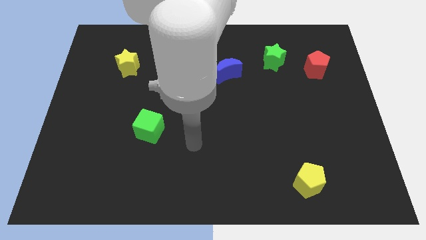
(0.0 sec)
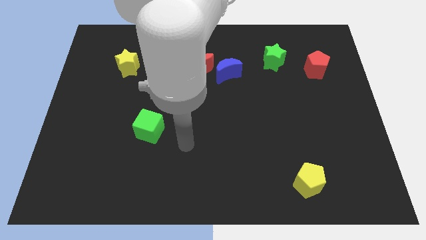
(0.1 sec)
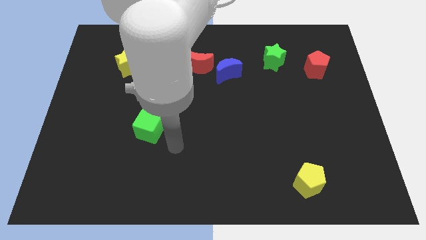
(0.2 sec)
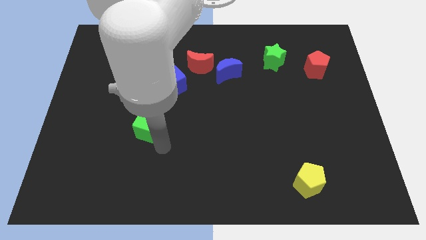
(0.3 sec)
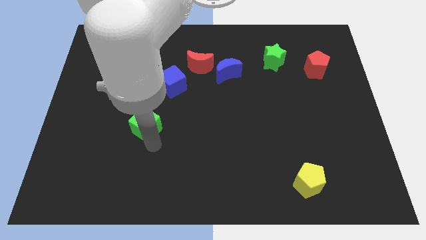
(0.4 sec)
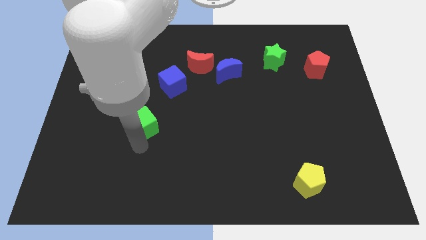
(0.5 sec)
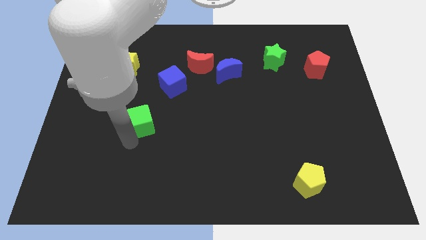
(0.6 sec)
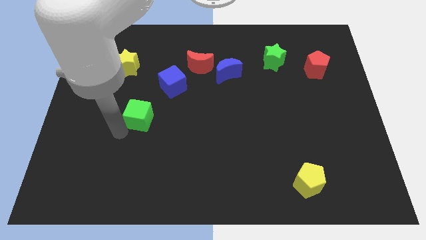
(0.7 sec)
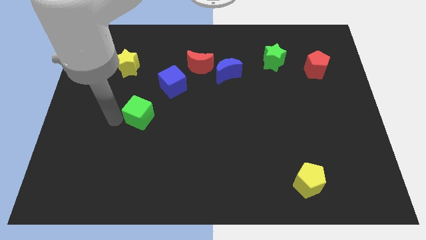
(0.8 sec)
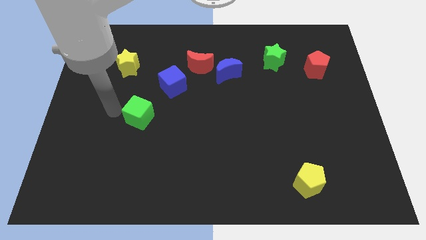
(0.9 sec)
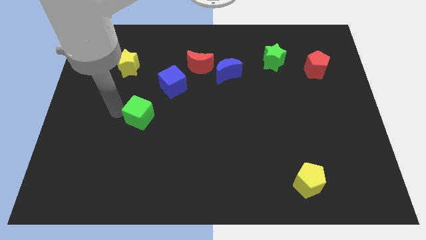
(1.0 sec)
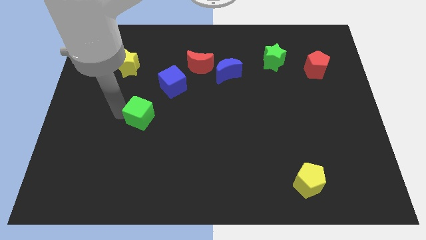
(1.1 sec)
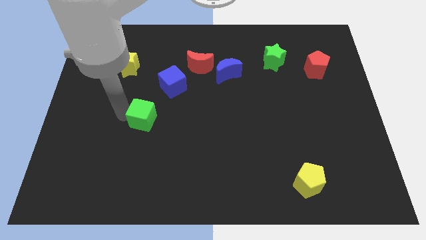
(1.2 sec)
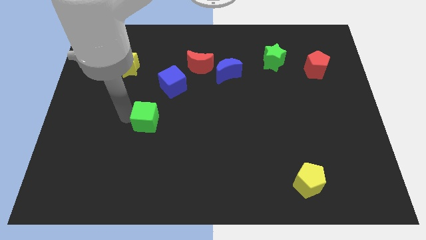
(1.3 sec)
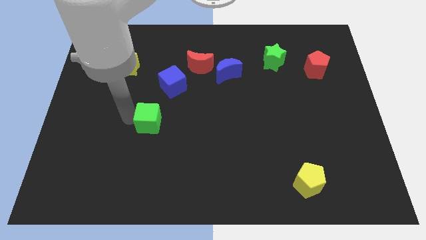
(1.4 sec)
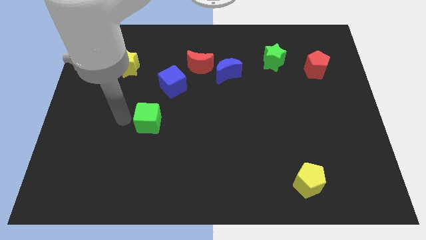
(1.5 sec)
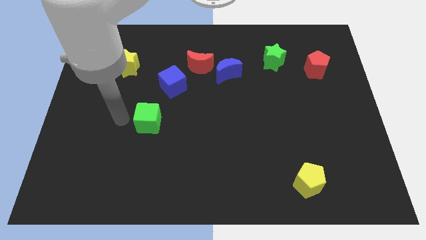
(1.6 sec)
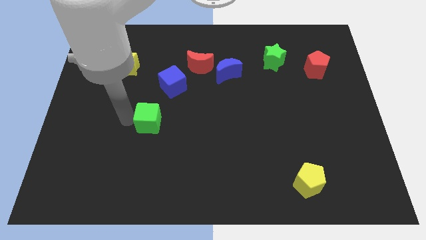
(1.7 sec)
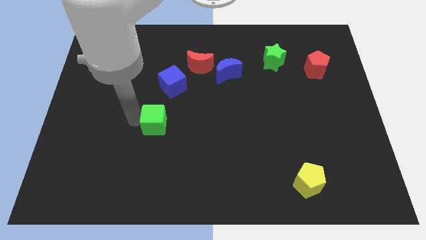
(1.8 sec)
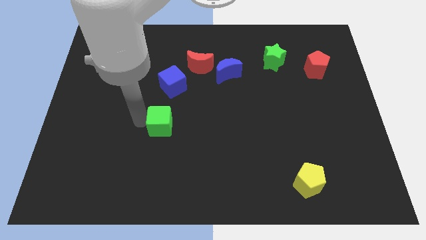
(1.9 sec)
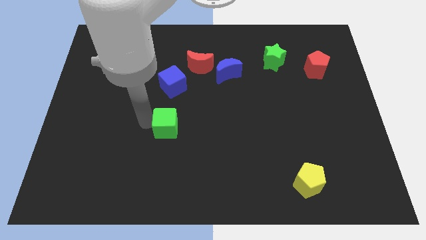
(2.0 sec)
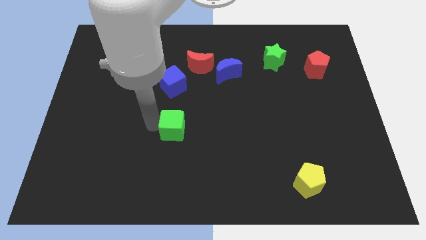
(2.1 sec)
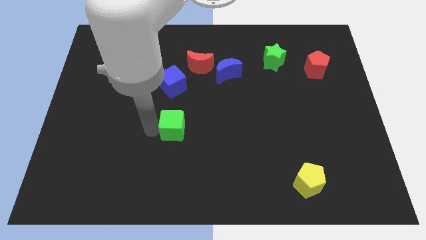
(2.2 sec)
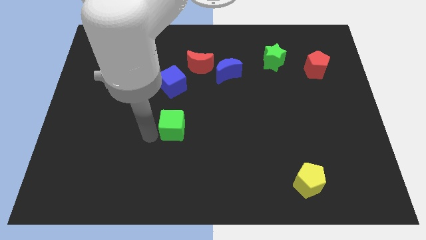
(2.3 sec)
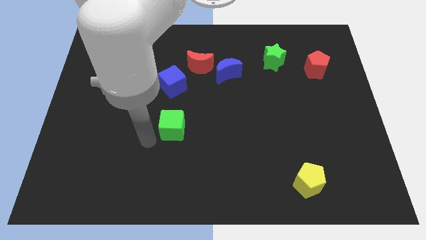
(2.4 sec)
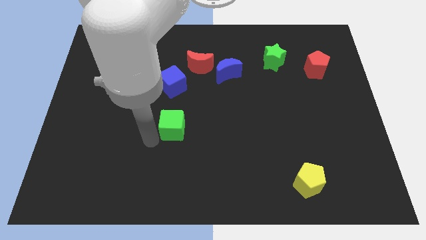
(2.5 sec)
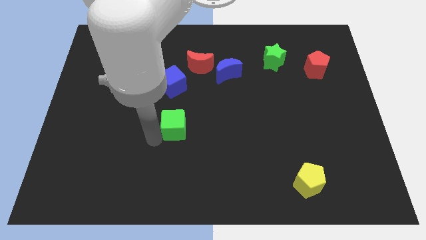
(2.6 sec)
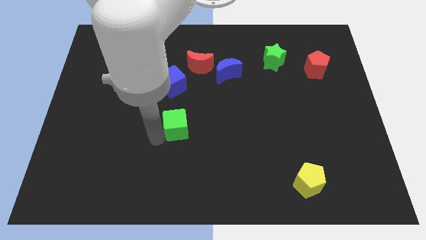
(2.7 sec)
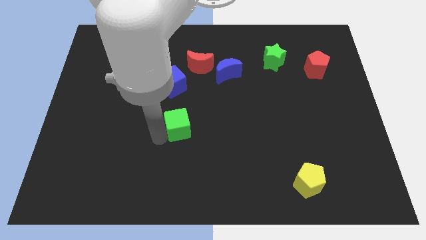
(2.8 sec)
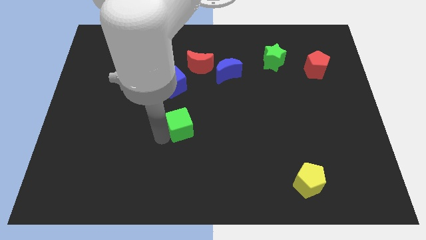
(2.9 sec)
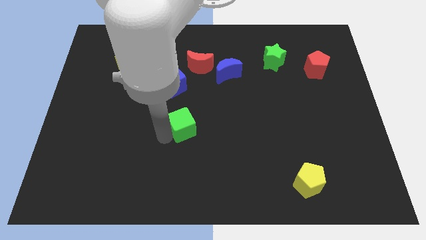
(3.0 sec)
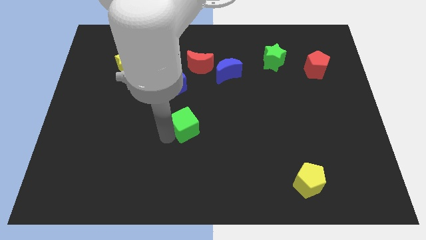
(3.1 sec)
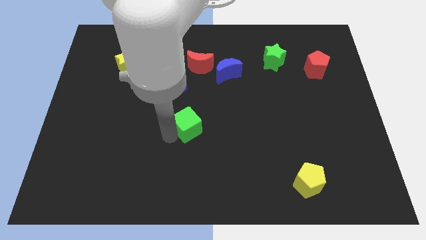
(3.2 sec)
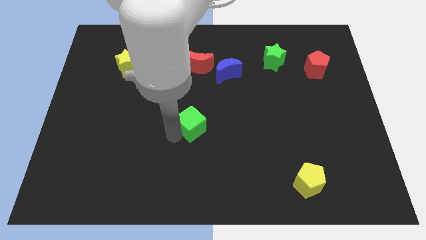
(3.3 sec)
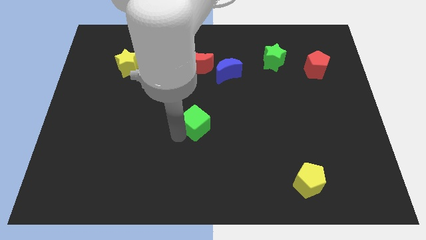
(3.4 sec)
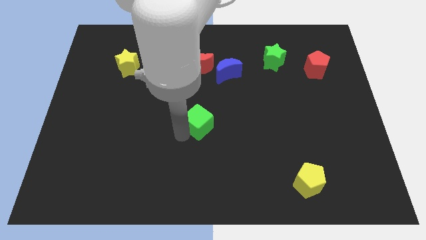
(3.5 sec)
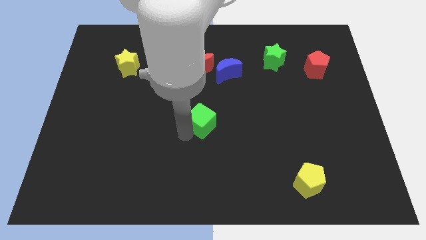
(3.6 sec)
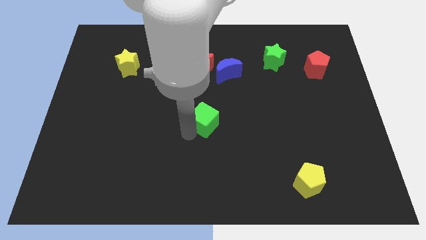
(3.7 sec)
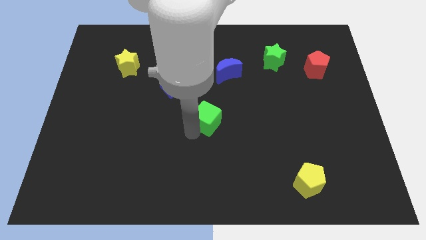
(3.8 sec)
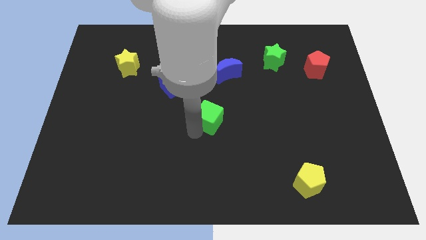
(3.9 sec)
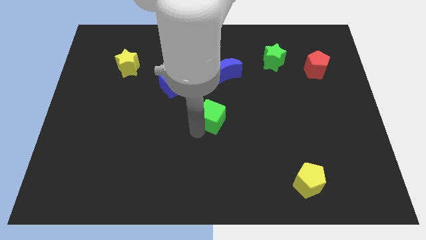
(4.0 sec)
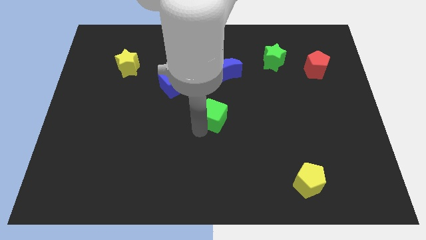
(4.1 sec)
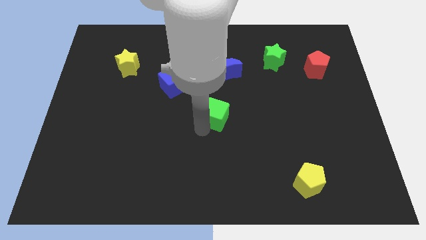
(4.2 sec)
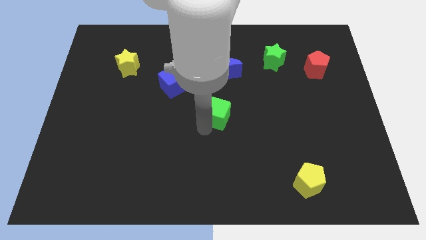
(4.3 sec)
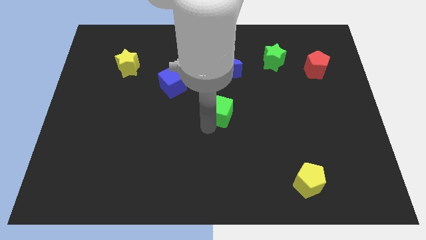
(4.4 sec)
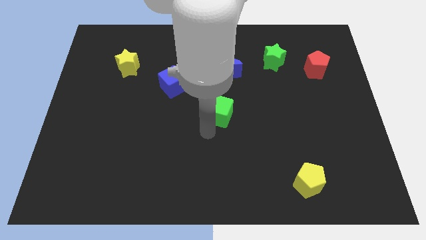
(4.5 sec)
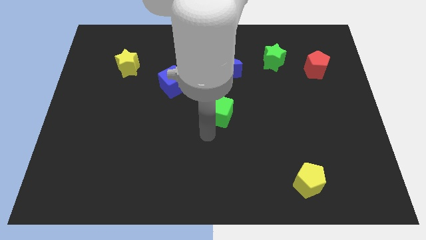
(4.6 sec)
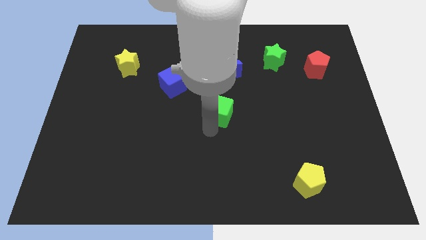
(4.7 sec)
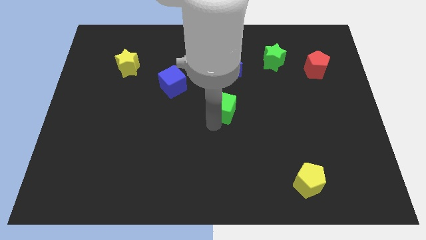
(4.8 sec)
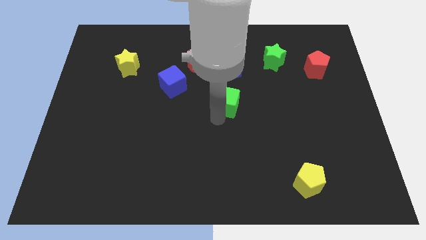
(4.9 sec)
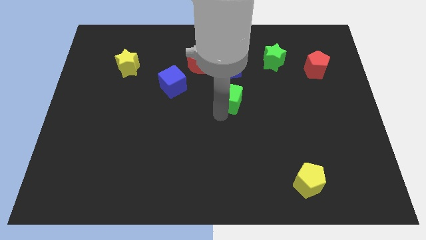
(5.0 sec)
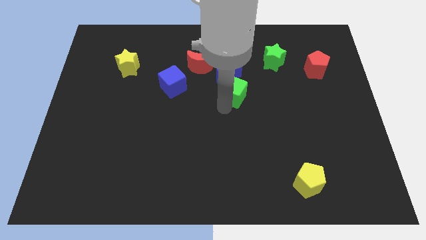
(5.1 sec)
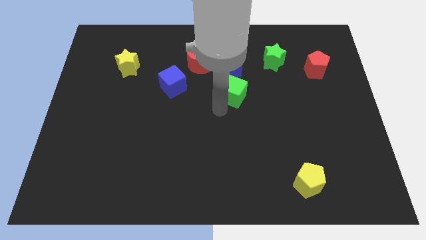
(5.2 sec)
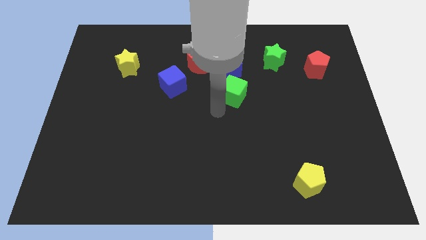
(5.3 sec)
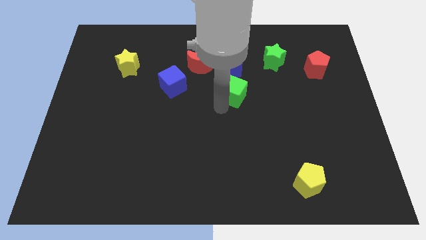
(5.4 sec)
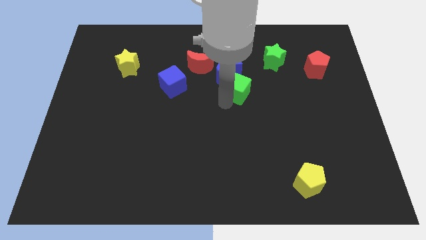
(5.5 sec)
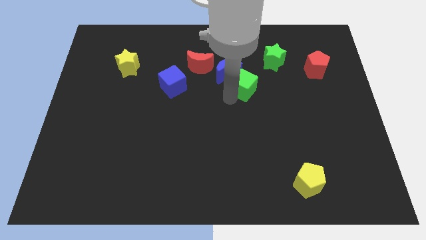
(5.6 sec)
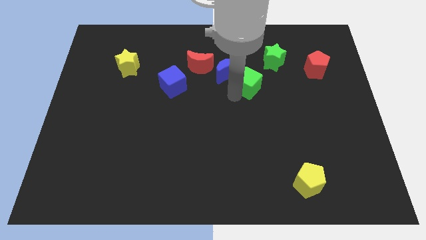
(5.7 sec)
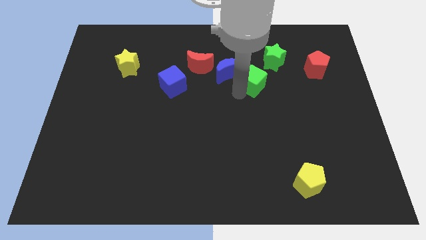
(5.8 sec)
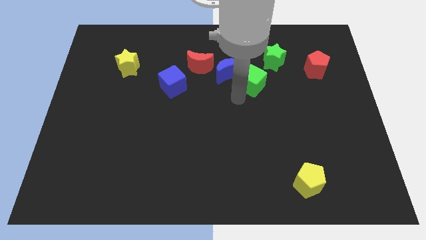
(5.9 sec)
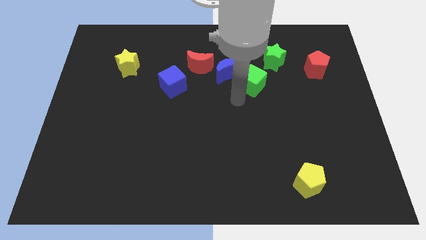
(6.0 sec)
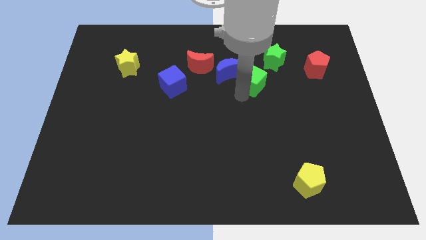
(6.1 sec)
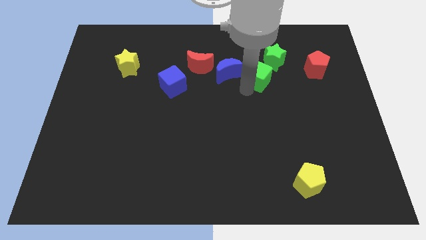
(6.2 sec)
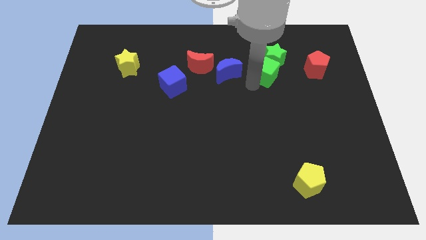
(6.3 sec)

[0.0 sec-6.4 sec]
push the green cube to the green star

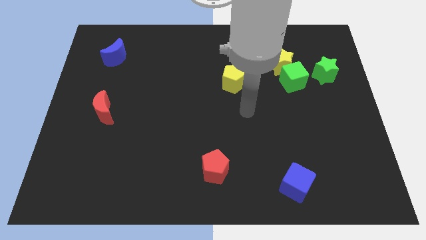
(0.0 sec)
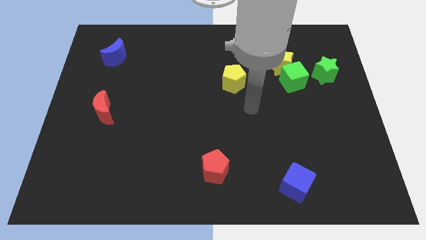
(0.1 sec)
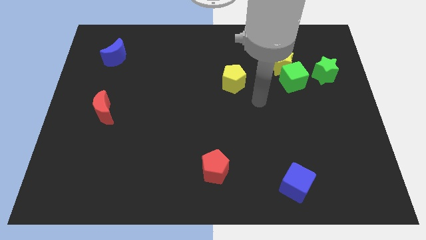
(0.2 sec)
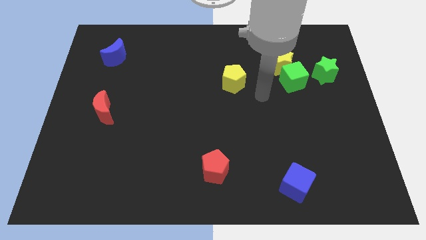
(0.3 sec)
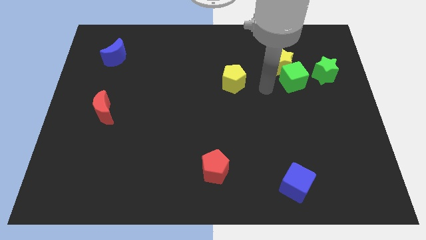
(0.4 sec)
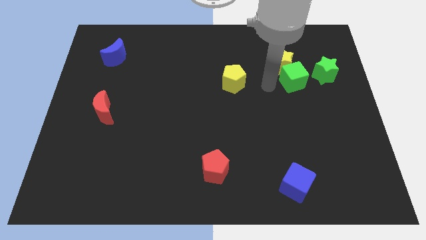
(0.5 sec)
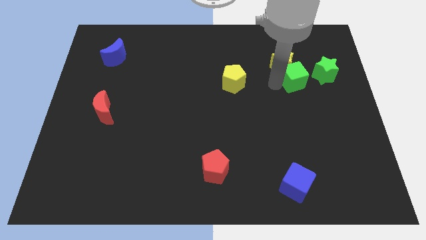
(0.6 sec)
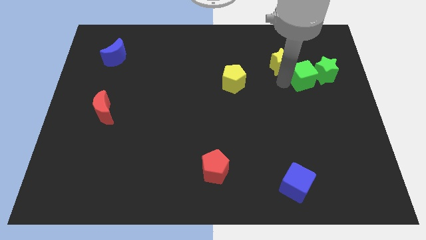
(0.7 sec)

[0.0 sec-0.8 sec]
put the green cube next to the green star
